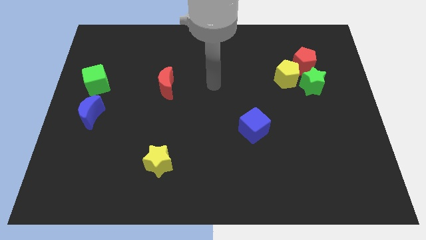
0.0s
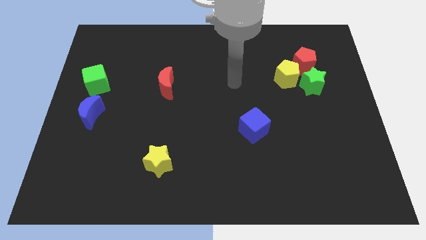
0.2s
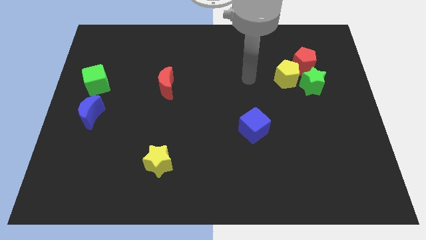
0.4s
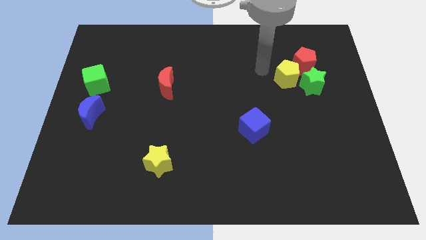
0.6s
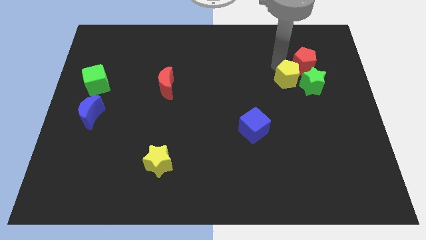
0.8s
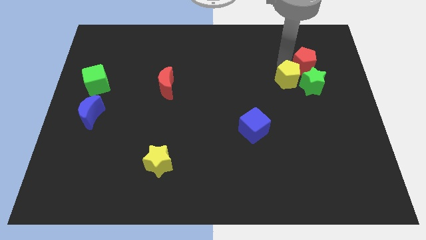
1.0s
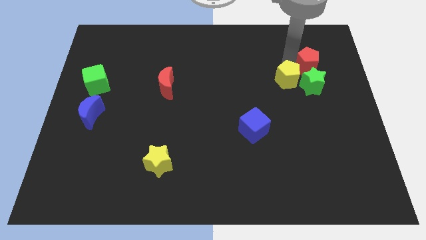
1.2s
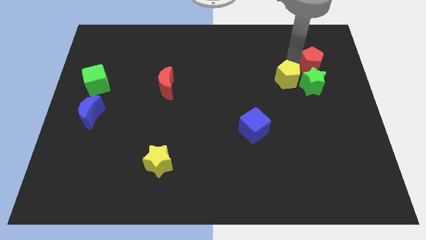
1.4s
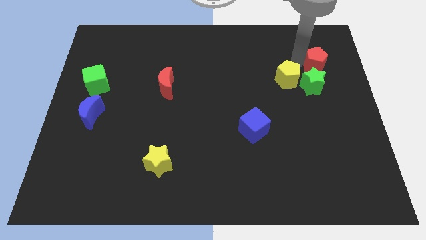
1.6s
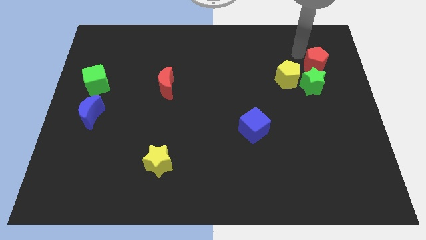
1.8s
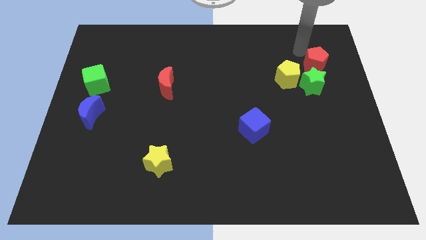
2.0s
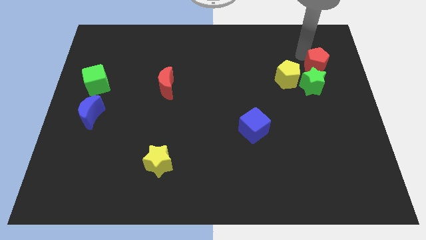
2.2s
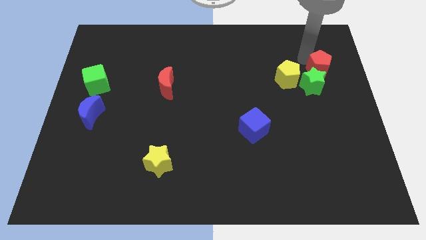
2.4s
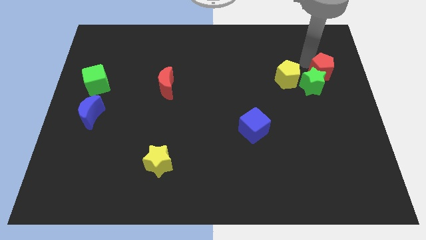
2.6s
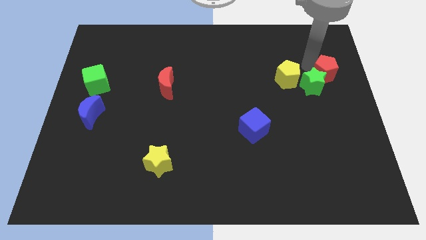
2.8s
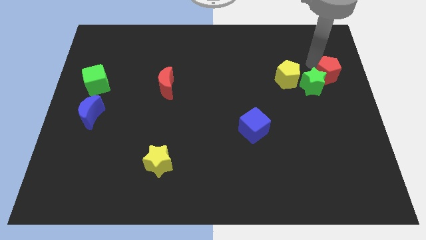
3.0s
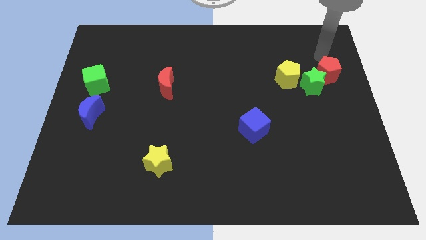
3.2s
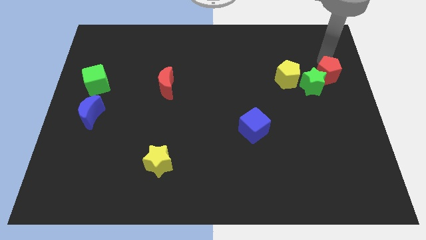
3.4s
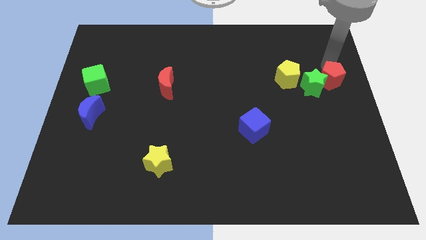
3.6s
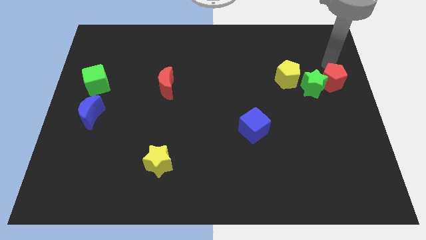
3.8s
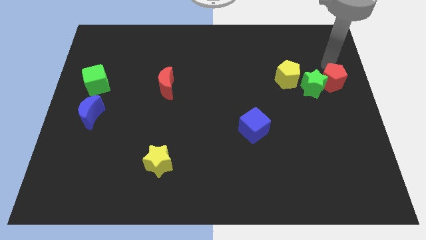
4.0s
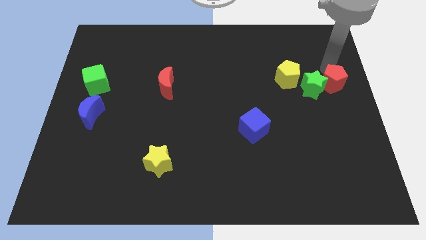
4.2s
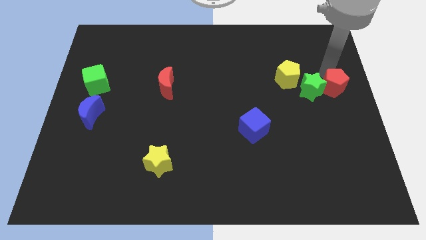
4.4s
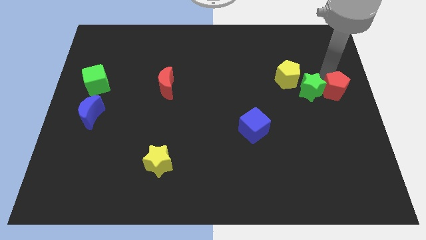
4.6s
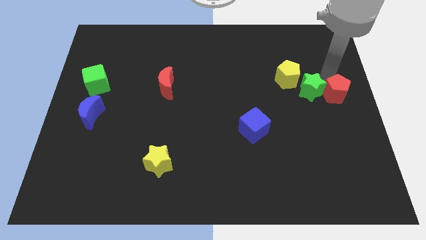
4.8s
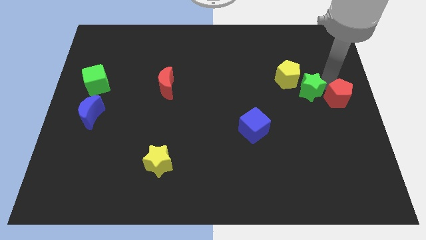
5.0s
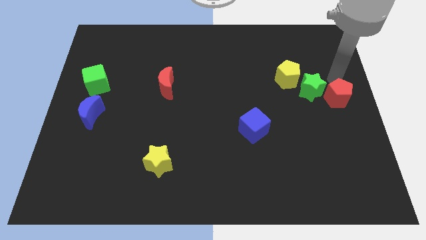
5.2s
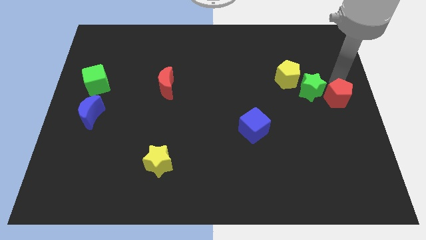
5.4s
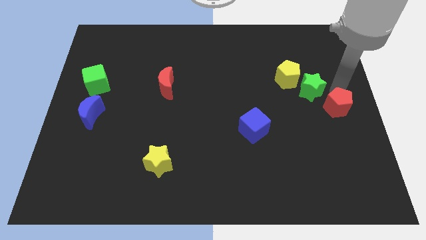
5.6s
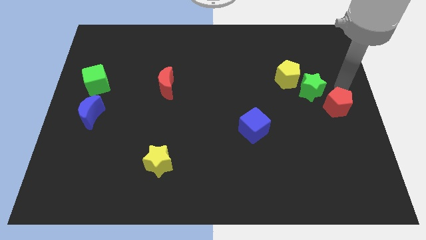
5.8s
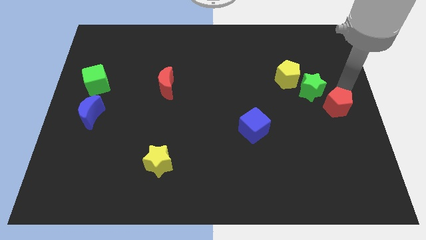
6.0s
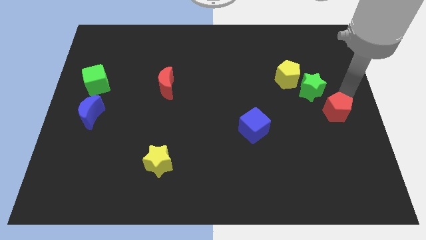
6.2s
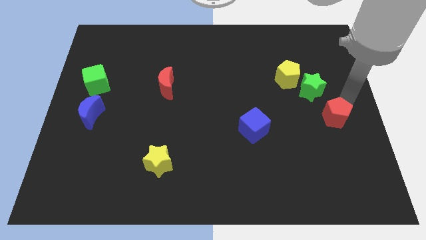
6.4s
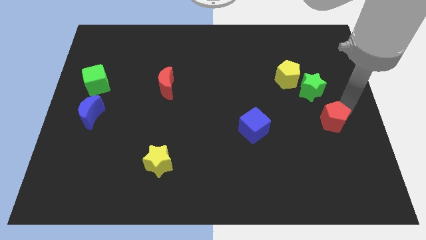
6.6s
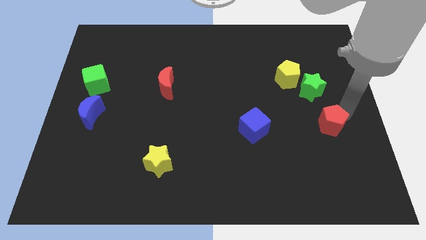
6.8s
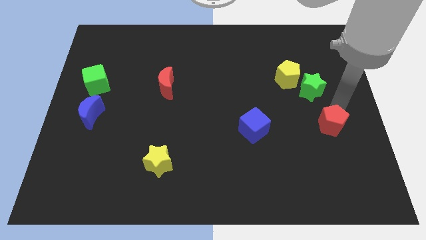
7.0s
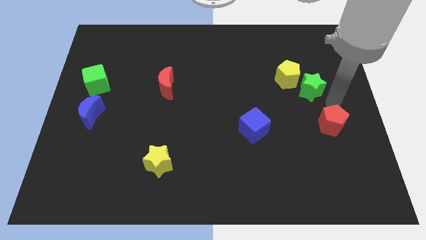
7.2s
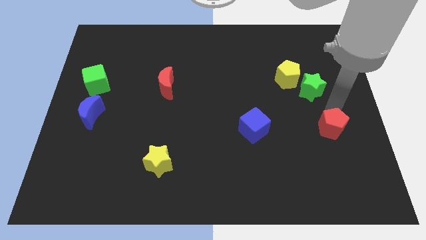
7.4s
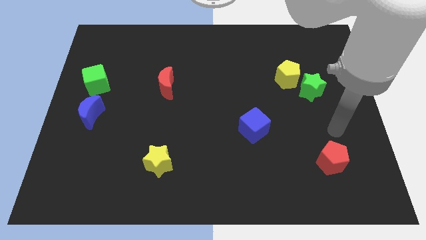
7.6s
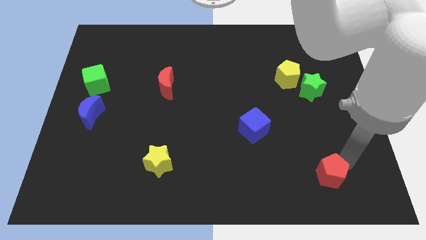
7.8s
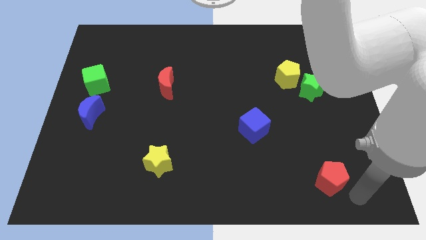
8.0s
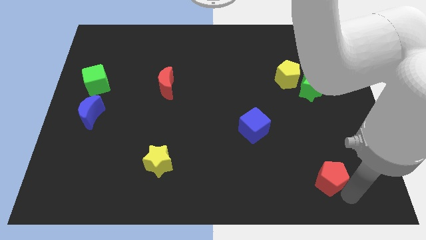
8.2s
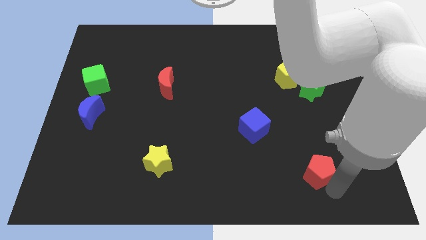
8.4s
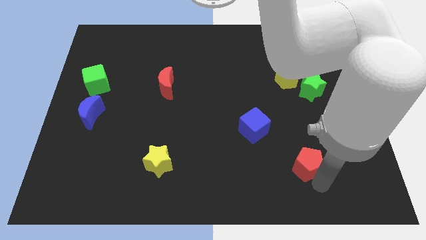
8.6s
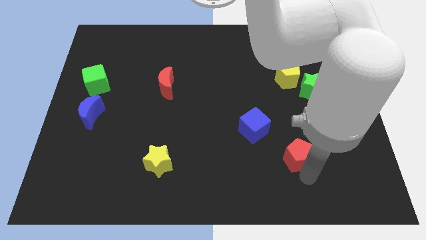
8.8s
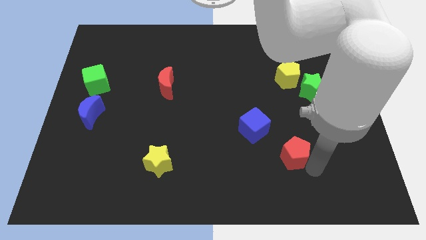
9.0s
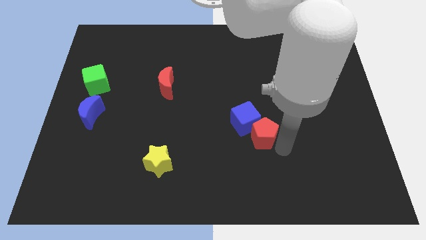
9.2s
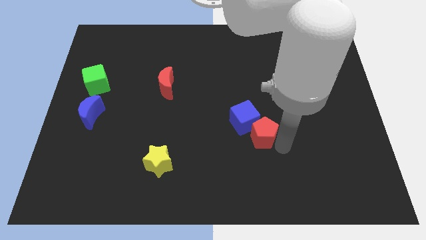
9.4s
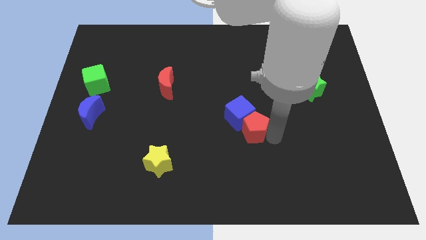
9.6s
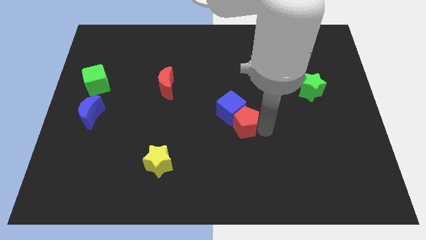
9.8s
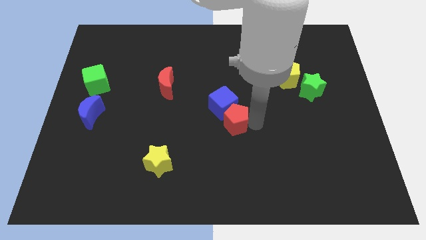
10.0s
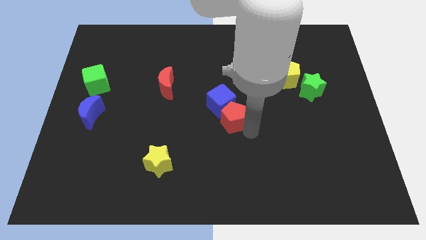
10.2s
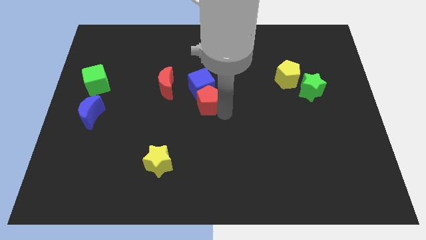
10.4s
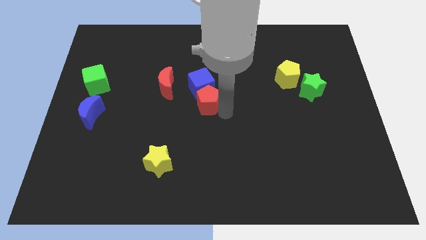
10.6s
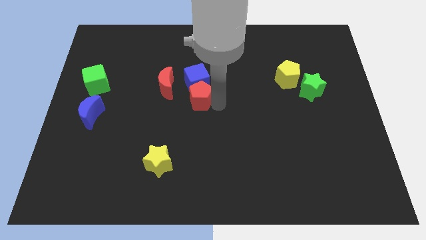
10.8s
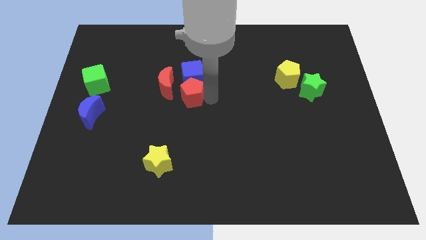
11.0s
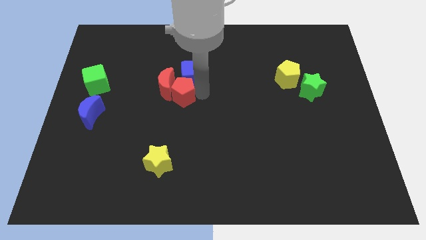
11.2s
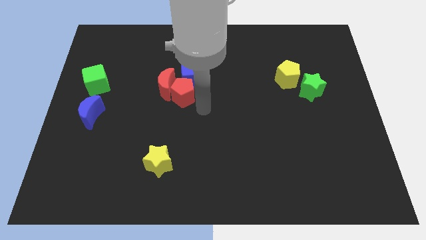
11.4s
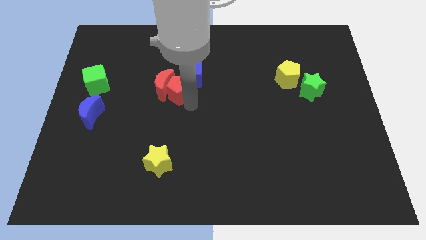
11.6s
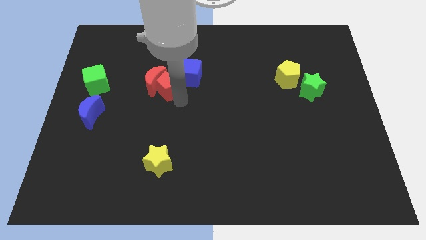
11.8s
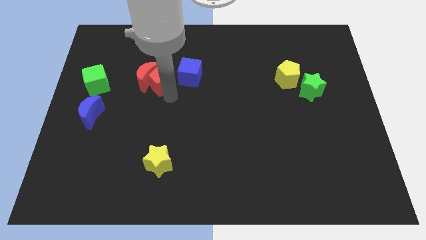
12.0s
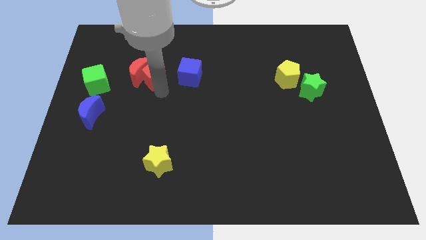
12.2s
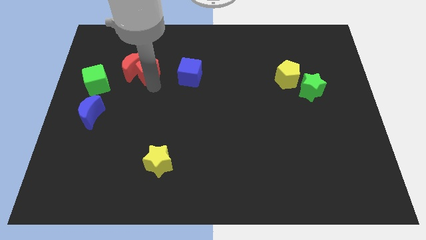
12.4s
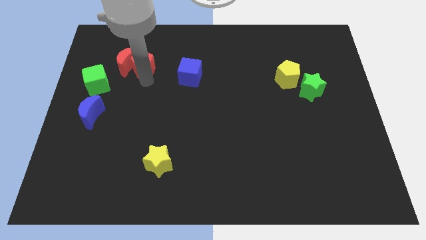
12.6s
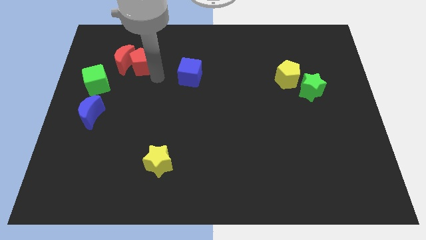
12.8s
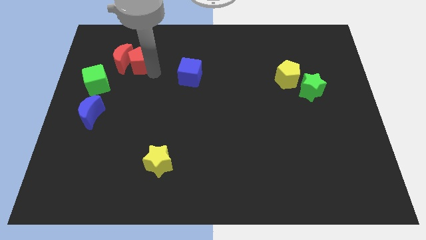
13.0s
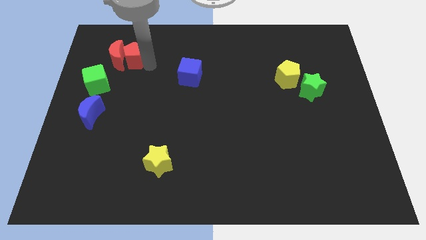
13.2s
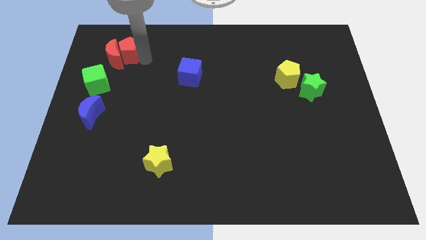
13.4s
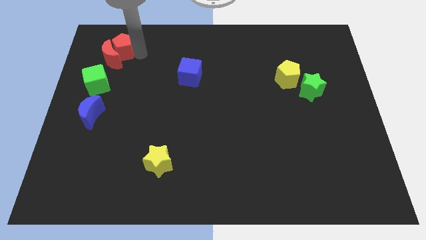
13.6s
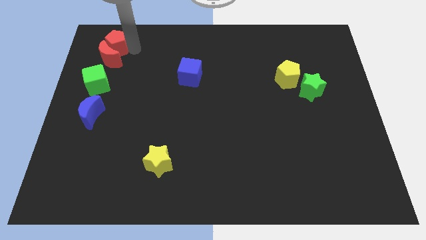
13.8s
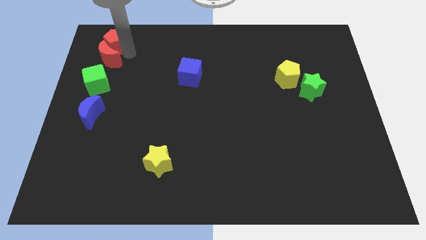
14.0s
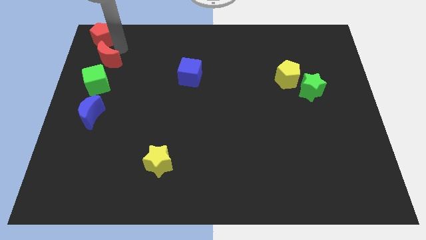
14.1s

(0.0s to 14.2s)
move the red pentagon to the top left of the board
